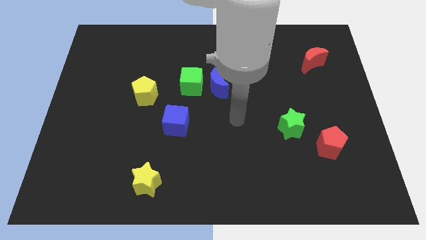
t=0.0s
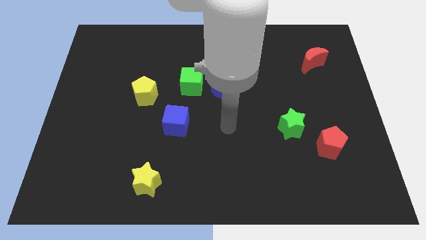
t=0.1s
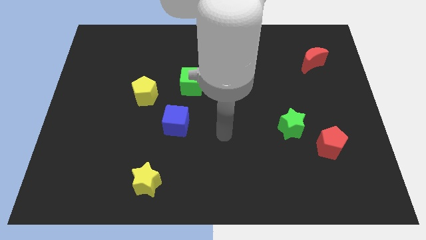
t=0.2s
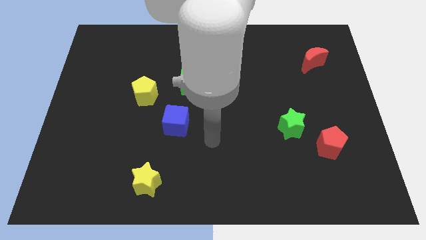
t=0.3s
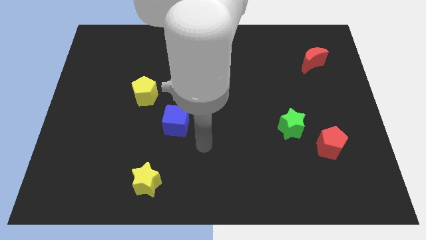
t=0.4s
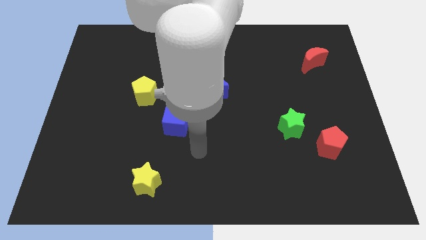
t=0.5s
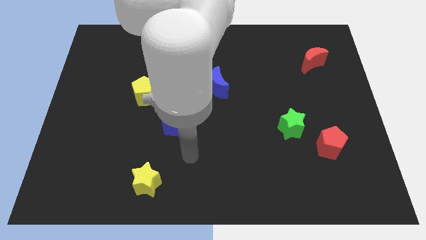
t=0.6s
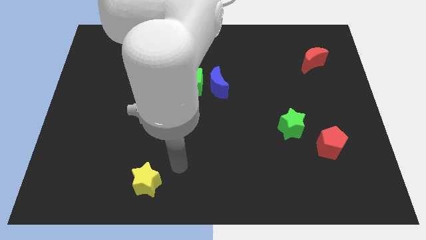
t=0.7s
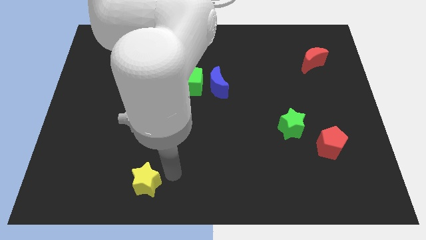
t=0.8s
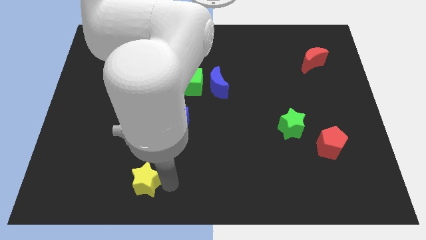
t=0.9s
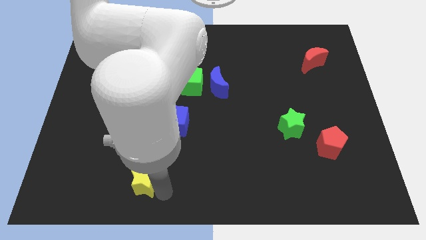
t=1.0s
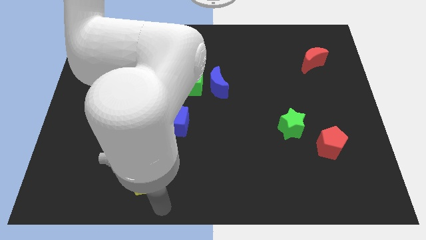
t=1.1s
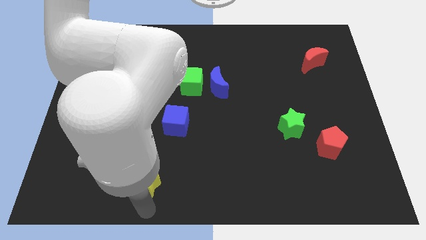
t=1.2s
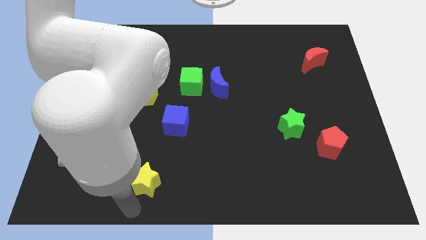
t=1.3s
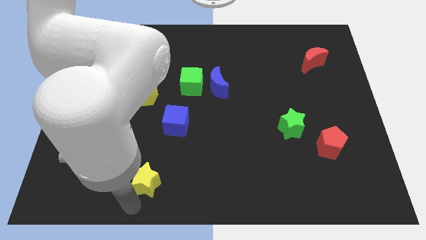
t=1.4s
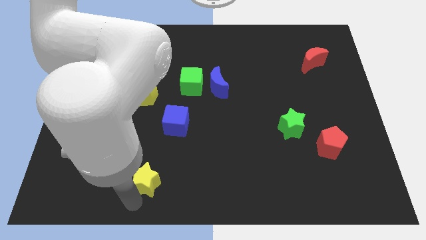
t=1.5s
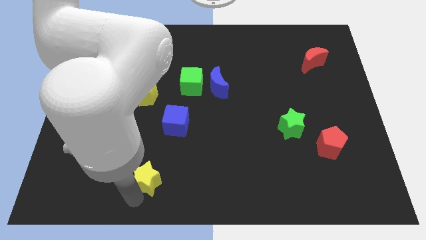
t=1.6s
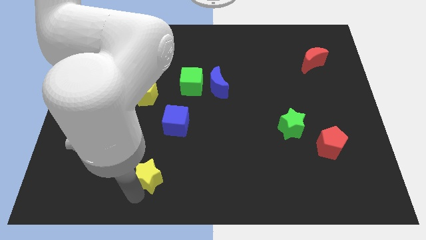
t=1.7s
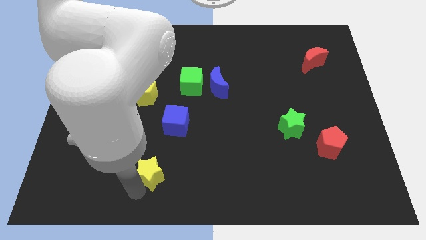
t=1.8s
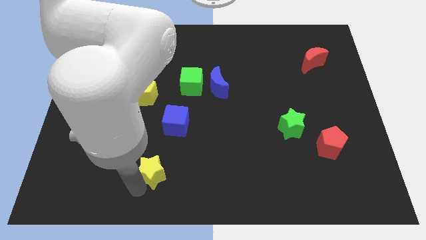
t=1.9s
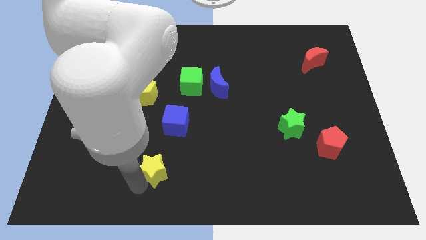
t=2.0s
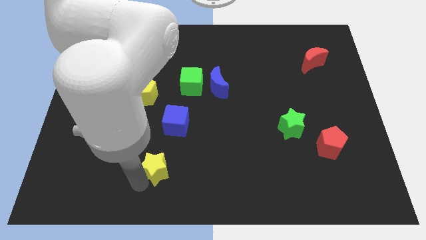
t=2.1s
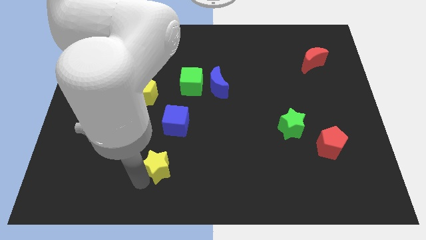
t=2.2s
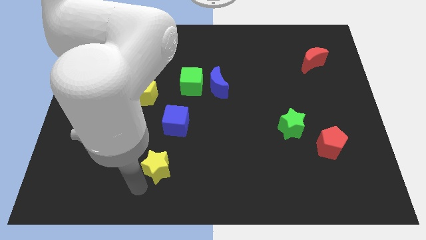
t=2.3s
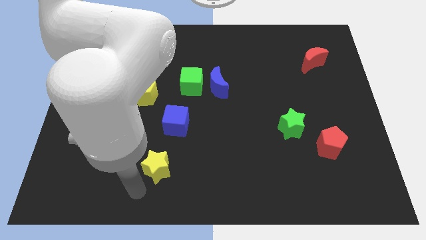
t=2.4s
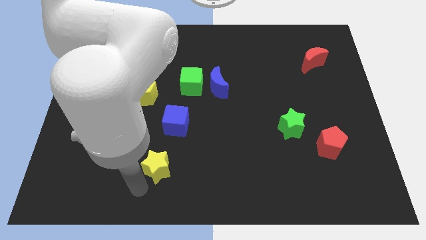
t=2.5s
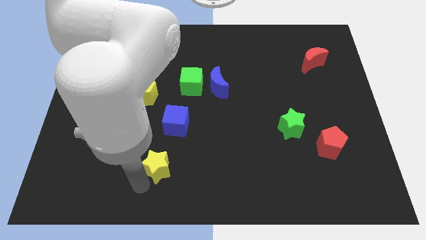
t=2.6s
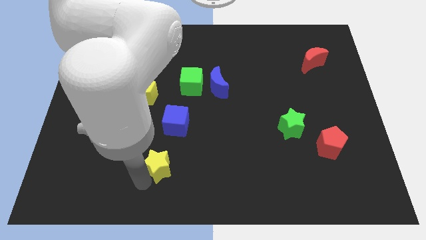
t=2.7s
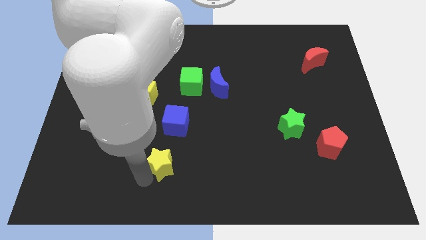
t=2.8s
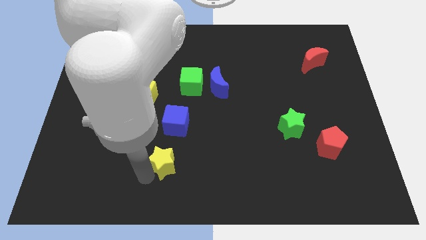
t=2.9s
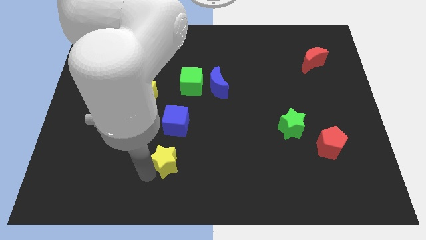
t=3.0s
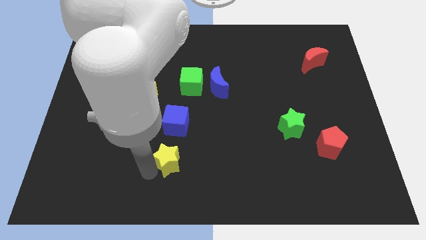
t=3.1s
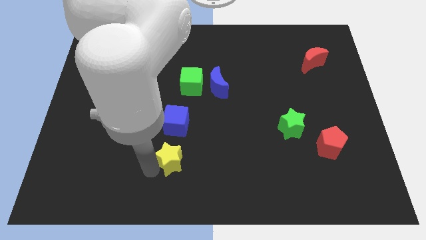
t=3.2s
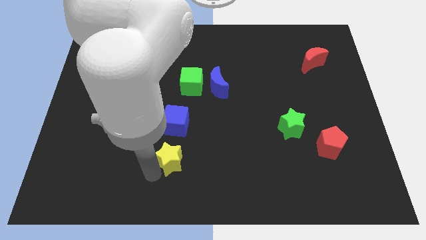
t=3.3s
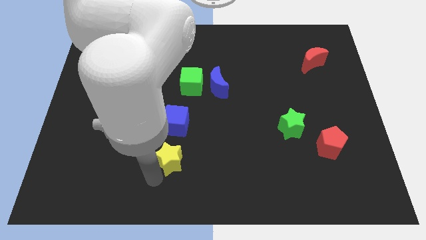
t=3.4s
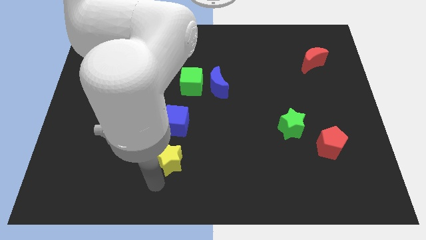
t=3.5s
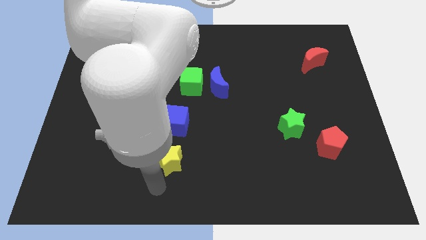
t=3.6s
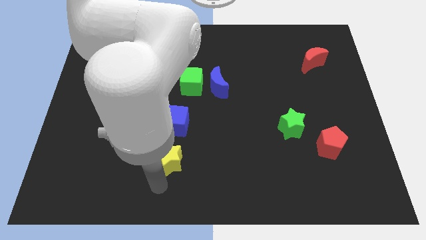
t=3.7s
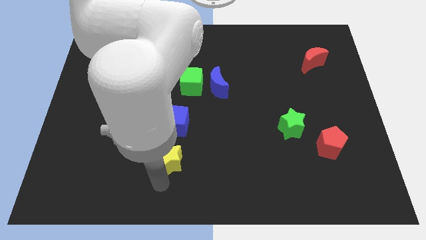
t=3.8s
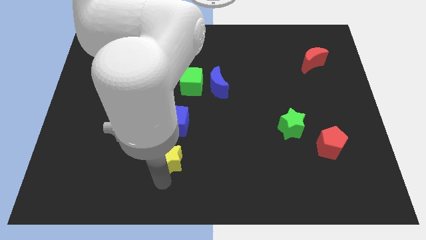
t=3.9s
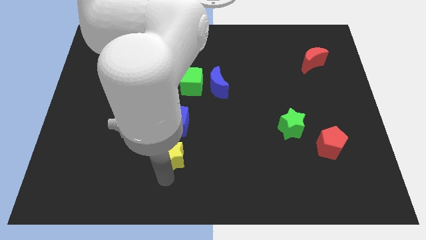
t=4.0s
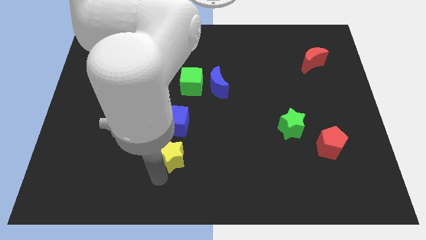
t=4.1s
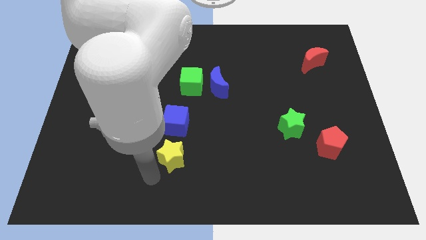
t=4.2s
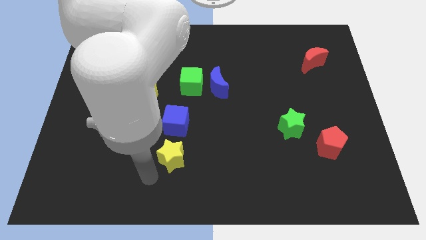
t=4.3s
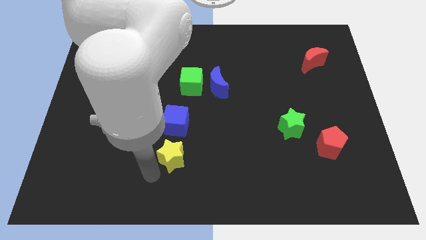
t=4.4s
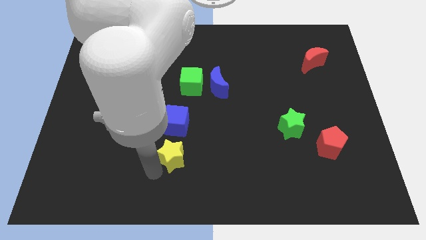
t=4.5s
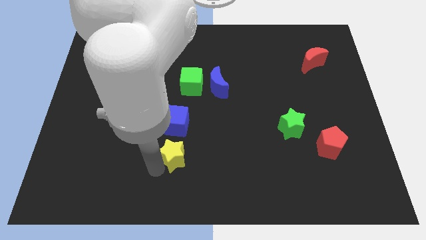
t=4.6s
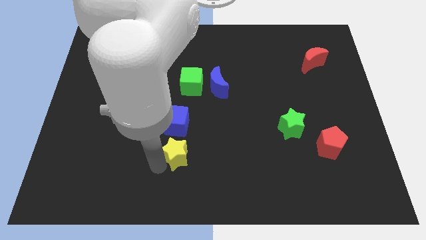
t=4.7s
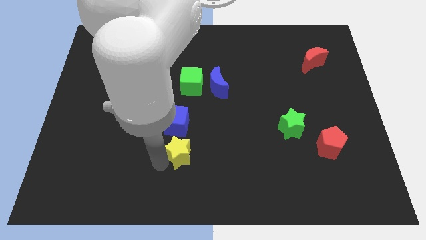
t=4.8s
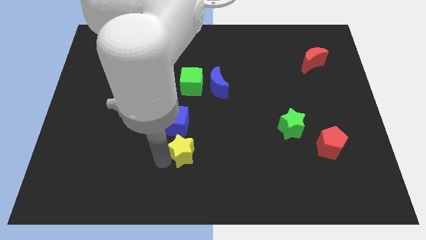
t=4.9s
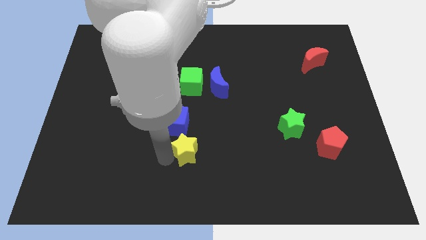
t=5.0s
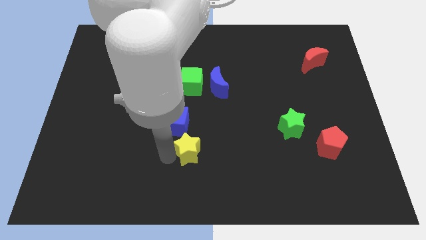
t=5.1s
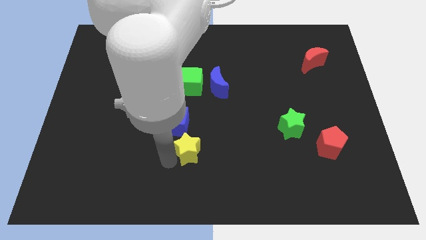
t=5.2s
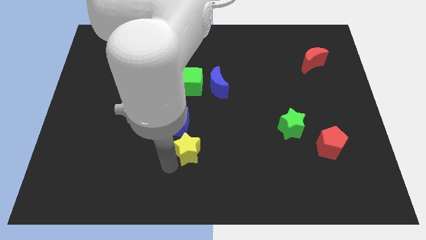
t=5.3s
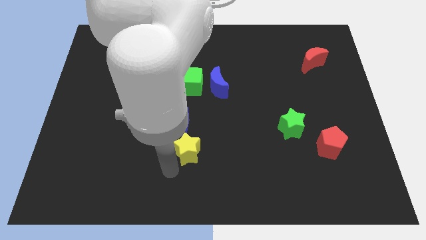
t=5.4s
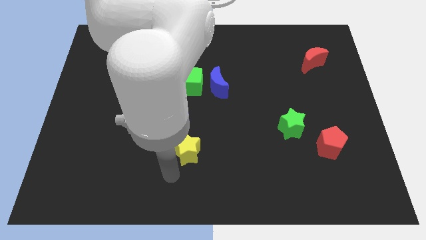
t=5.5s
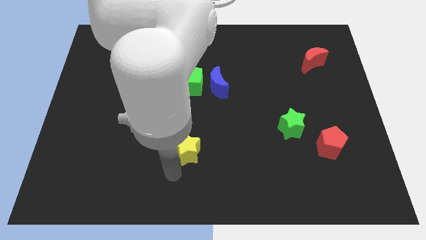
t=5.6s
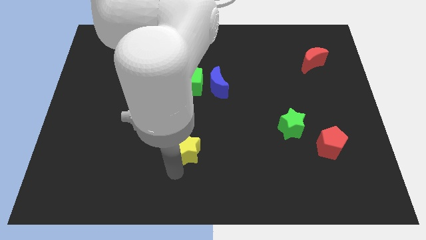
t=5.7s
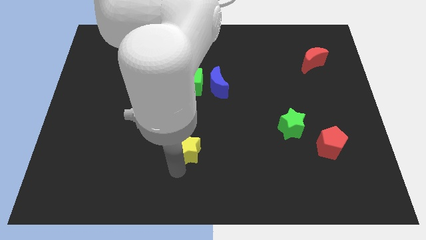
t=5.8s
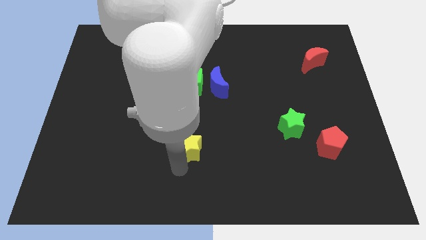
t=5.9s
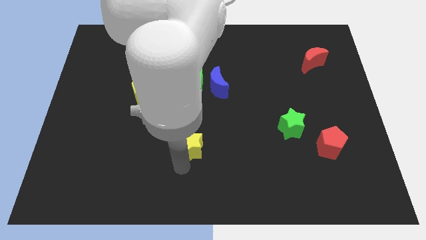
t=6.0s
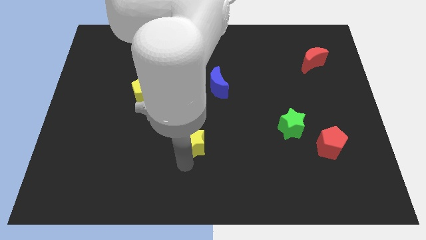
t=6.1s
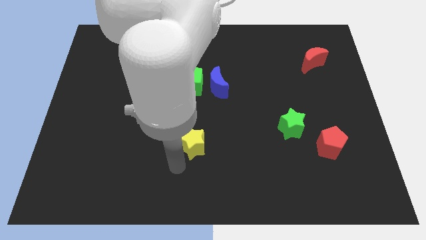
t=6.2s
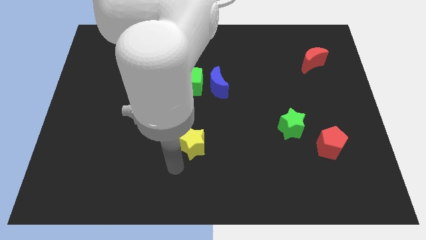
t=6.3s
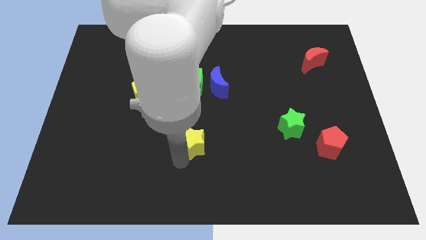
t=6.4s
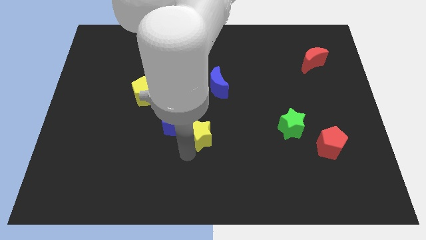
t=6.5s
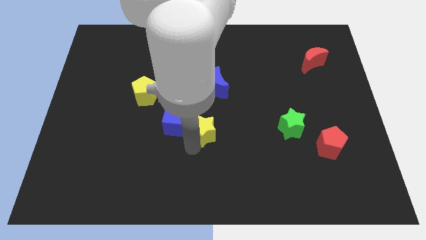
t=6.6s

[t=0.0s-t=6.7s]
slide the yellow star to the bottom of the blue moon
